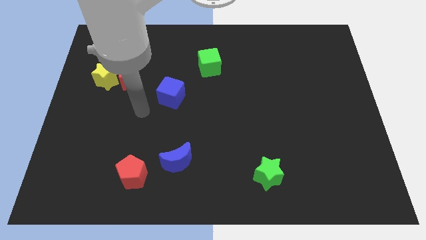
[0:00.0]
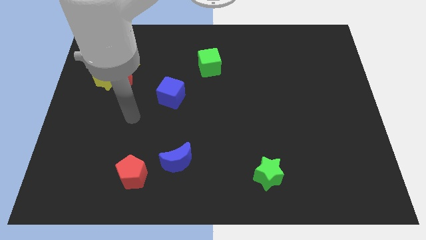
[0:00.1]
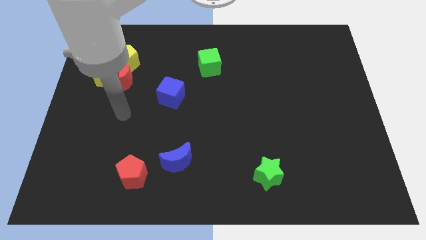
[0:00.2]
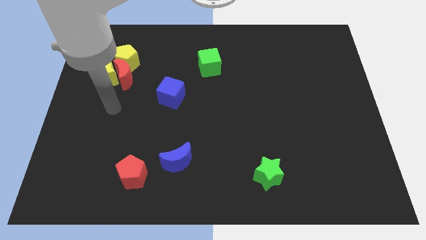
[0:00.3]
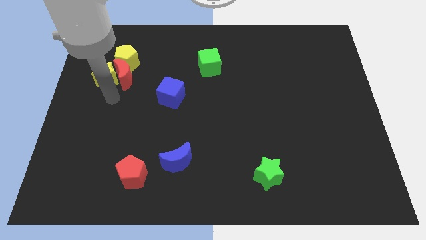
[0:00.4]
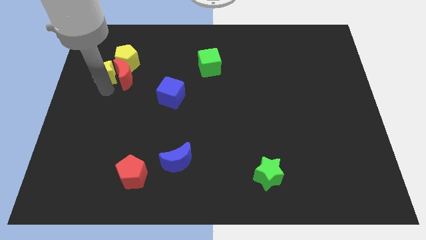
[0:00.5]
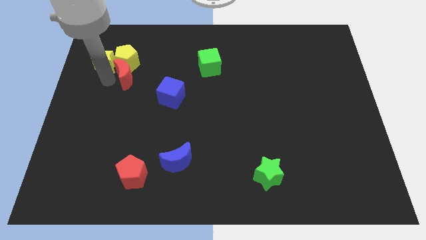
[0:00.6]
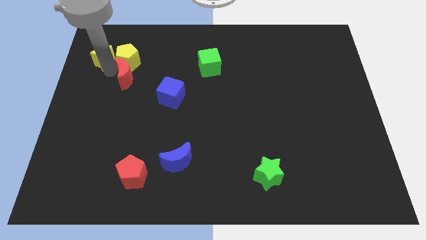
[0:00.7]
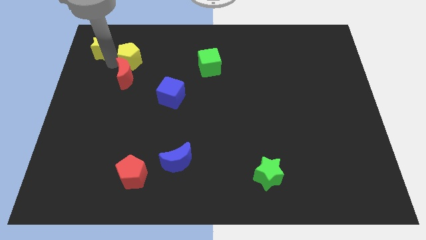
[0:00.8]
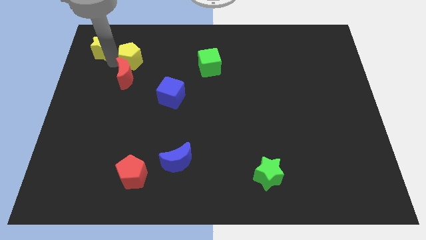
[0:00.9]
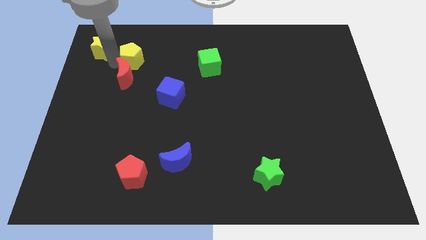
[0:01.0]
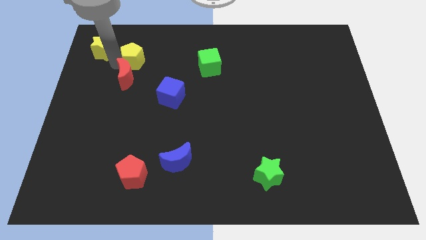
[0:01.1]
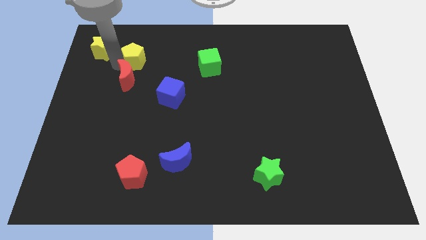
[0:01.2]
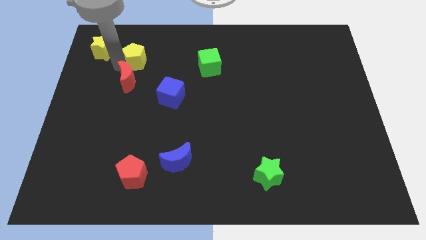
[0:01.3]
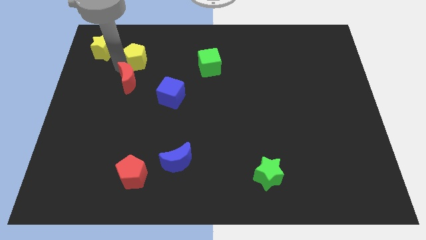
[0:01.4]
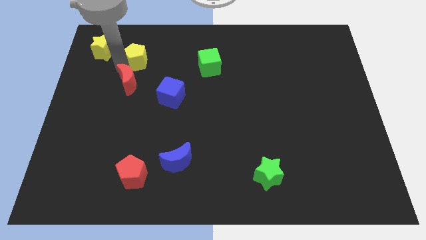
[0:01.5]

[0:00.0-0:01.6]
move the red moon away from the yellow star and yellow pentagon

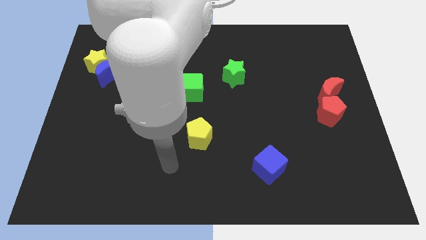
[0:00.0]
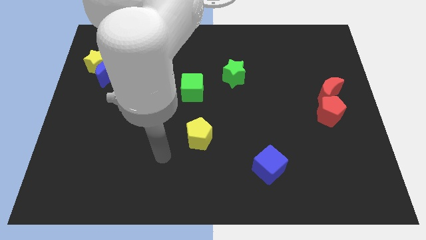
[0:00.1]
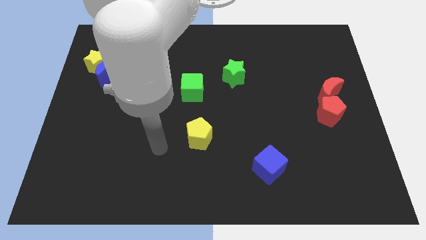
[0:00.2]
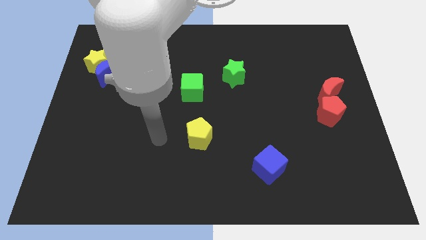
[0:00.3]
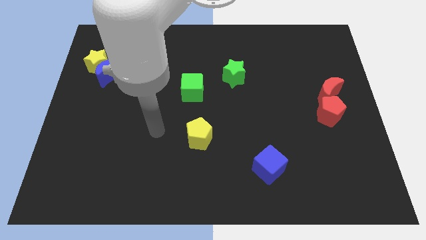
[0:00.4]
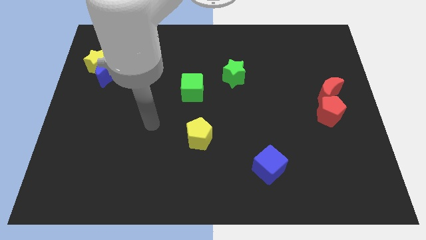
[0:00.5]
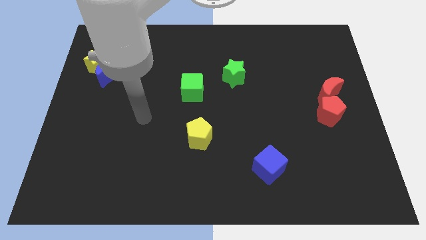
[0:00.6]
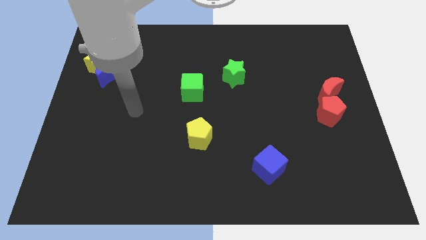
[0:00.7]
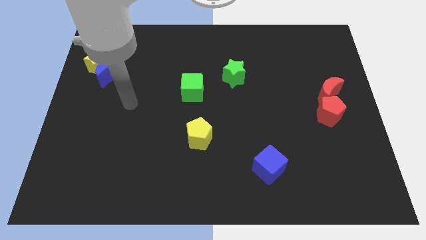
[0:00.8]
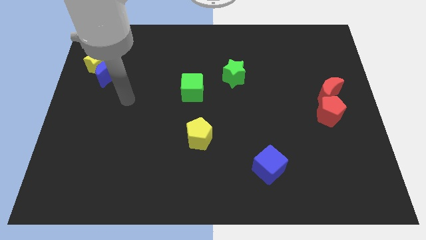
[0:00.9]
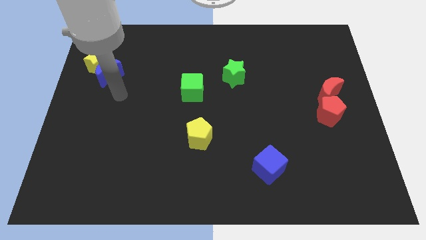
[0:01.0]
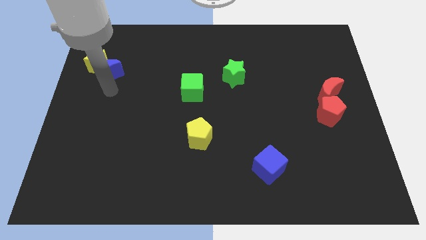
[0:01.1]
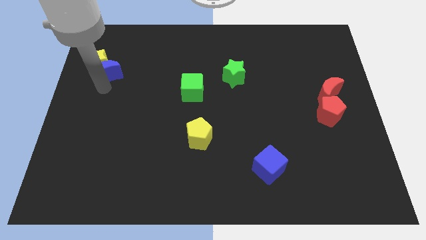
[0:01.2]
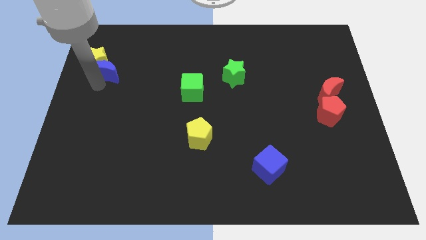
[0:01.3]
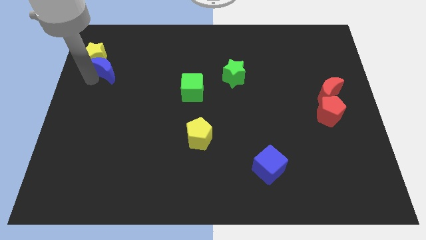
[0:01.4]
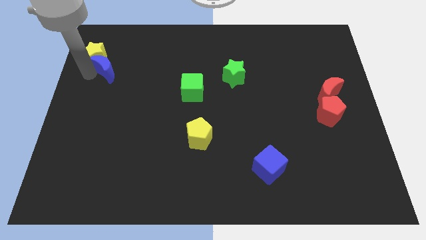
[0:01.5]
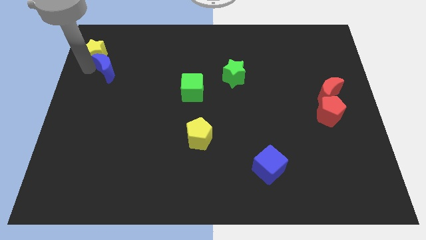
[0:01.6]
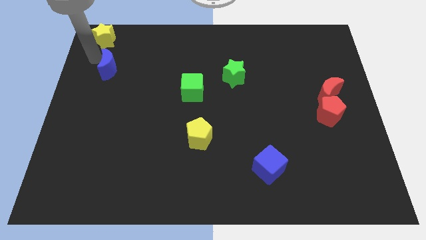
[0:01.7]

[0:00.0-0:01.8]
separate the blue moon from the yellow star

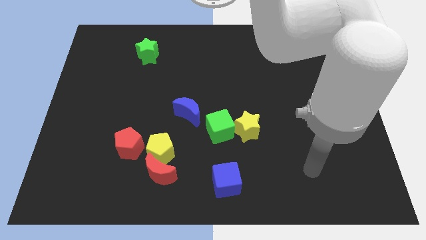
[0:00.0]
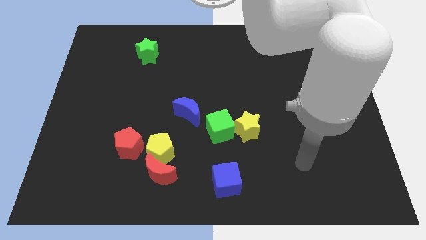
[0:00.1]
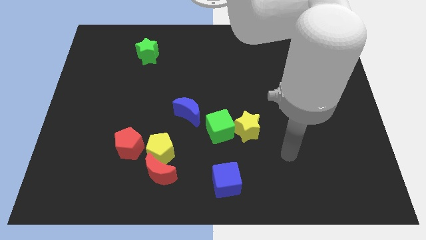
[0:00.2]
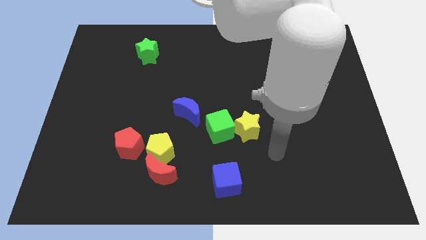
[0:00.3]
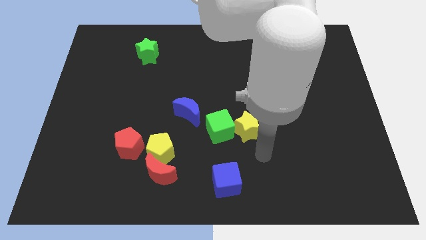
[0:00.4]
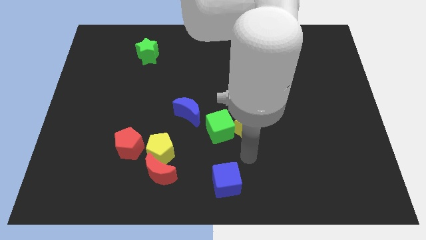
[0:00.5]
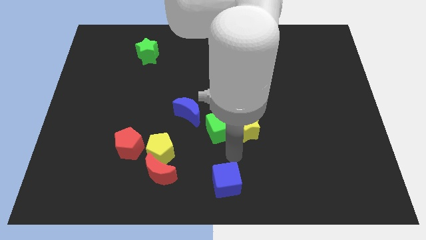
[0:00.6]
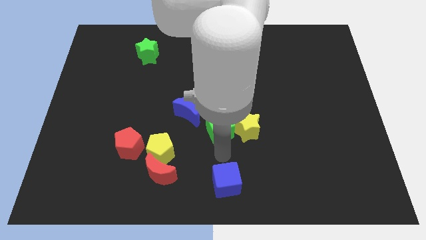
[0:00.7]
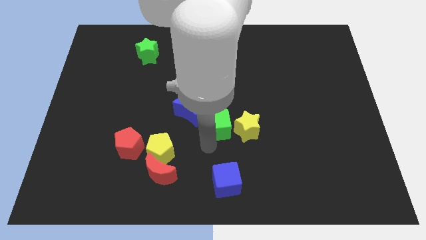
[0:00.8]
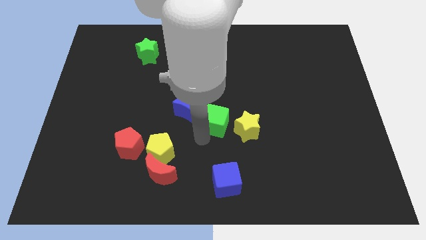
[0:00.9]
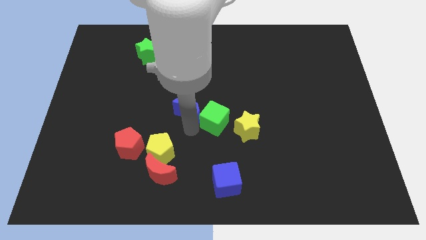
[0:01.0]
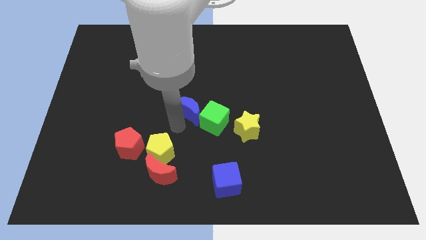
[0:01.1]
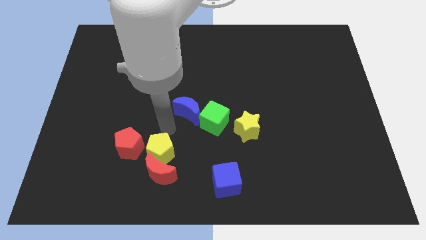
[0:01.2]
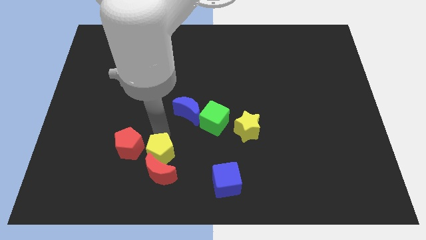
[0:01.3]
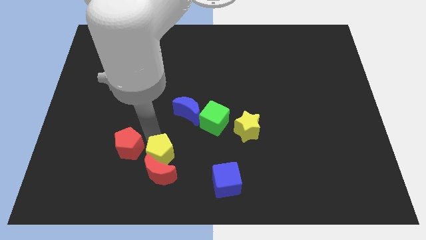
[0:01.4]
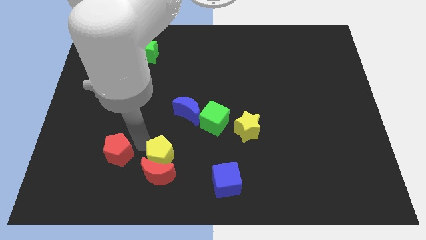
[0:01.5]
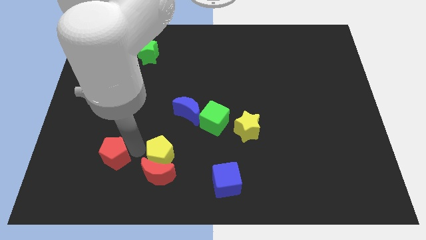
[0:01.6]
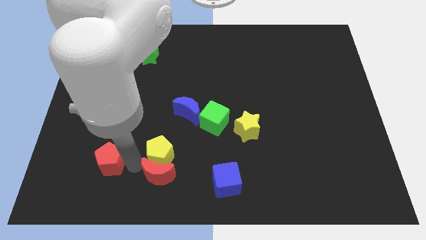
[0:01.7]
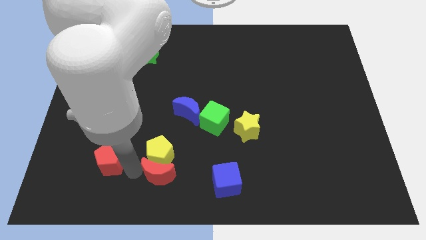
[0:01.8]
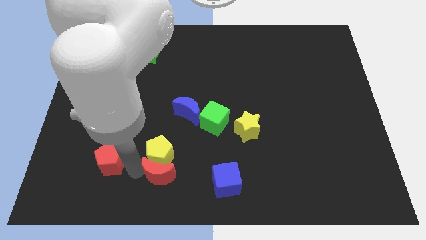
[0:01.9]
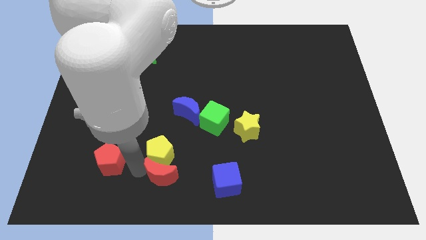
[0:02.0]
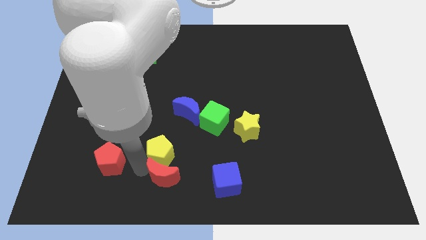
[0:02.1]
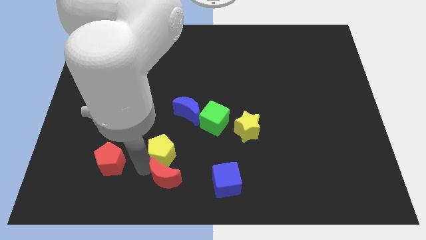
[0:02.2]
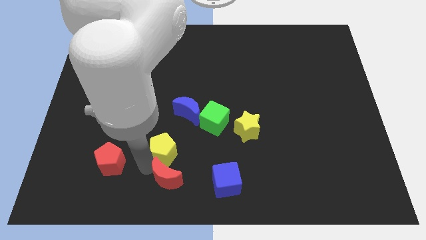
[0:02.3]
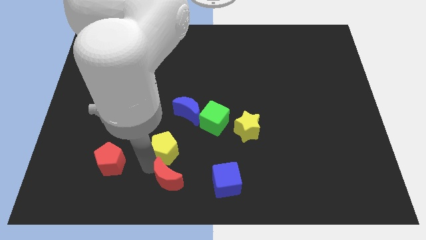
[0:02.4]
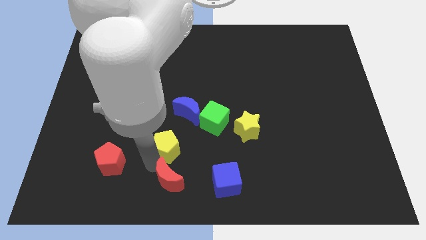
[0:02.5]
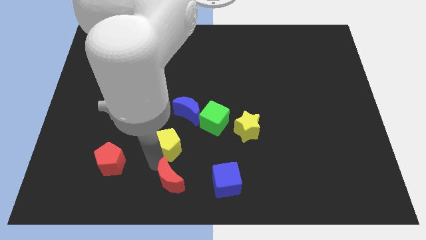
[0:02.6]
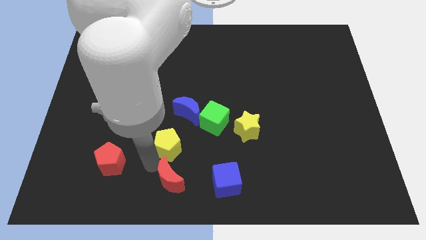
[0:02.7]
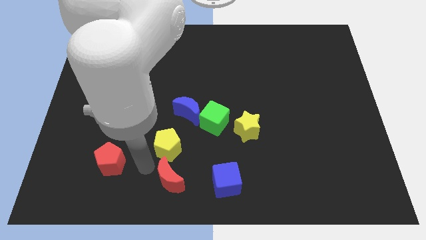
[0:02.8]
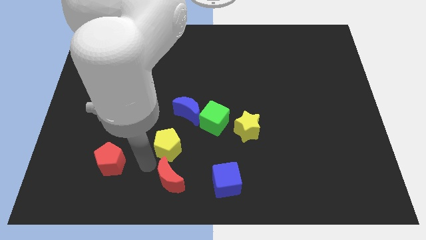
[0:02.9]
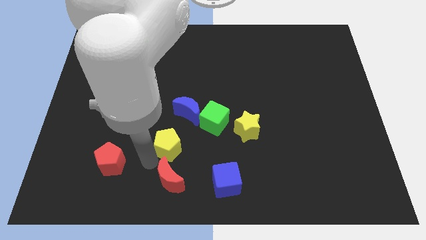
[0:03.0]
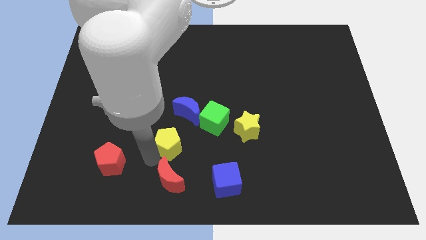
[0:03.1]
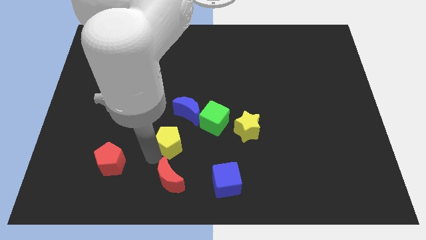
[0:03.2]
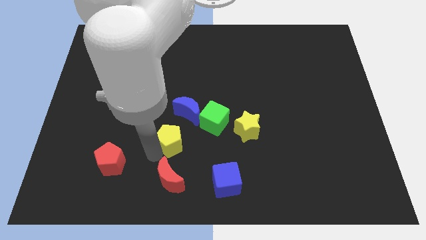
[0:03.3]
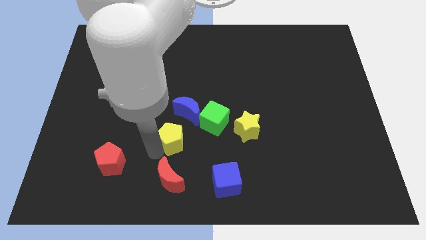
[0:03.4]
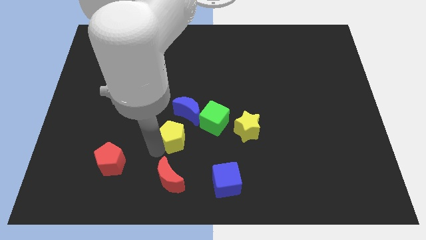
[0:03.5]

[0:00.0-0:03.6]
move the yellow pentagon away from the red moon and red pentagon

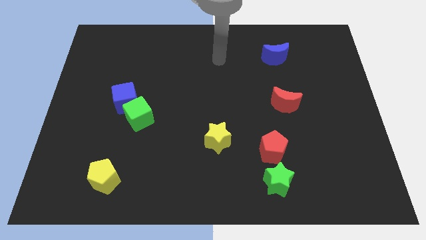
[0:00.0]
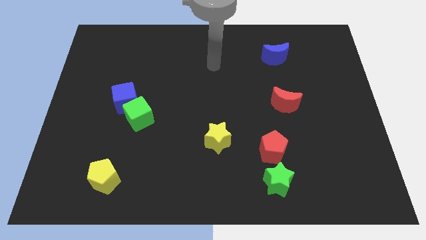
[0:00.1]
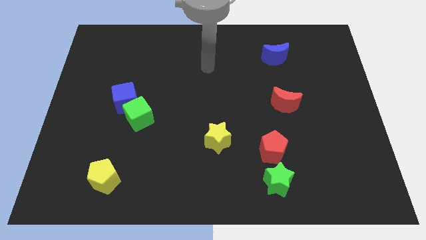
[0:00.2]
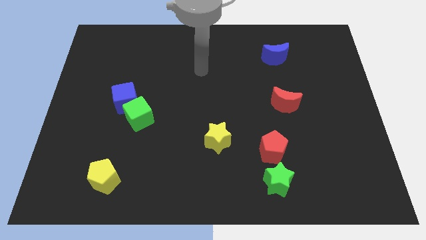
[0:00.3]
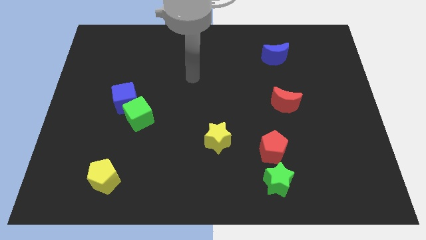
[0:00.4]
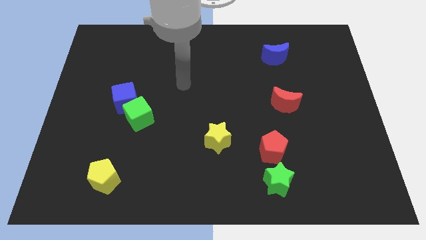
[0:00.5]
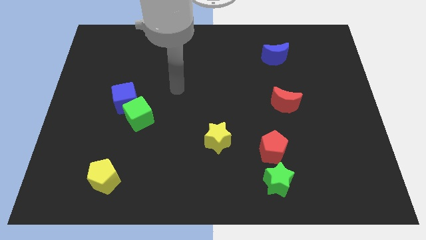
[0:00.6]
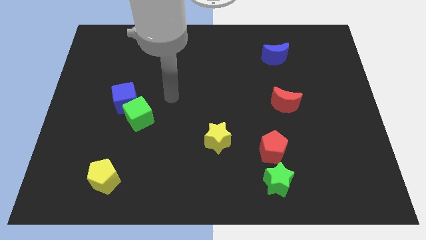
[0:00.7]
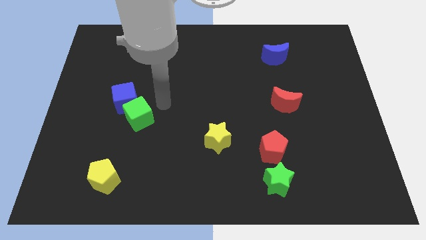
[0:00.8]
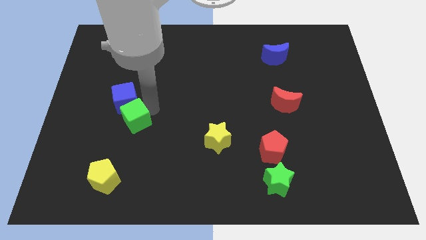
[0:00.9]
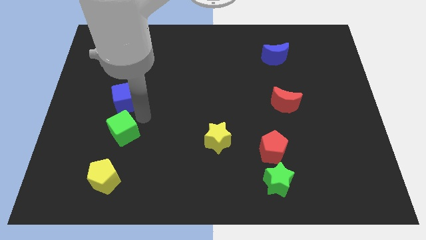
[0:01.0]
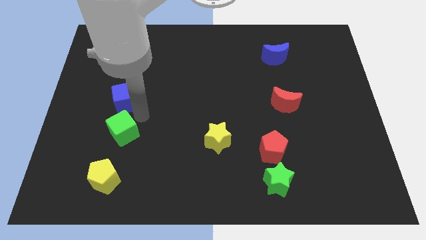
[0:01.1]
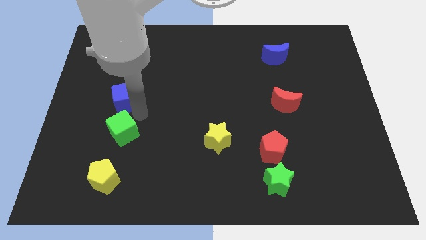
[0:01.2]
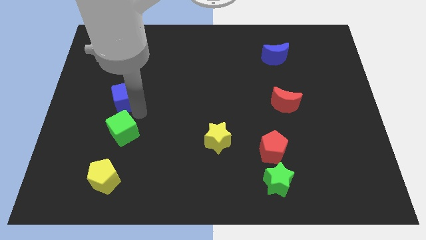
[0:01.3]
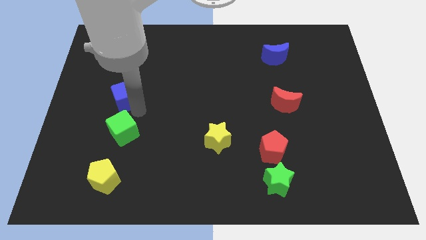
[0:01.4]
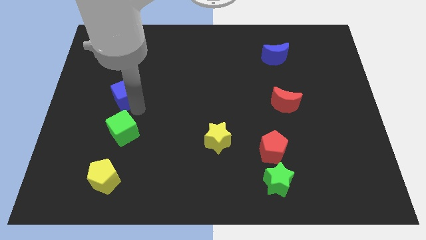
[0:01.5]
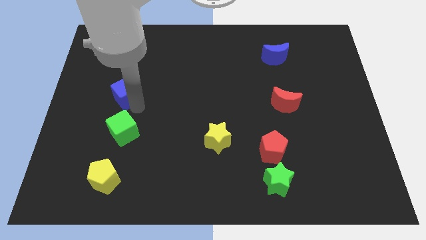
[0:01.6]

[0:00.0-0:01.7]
pull the blue cube apart from the green cube

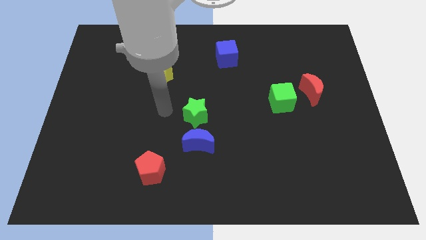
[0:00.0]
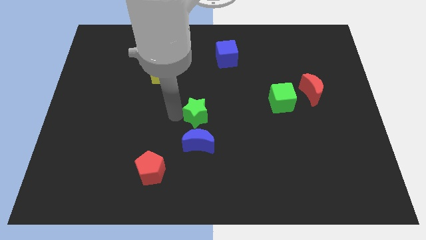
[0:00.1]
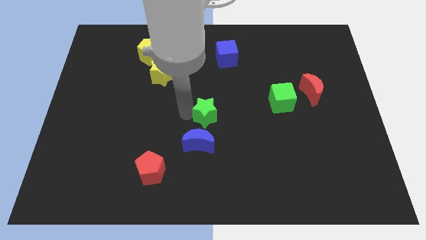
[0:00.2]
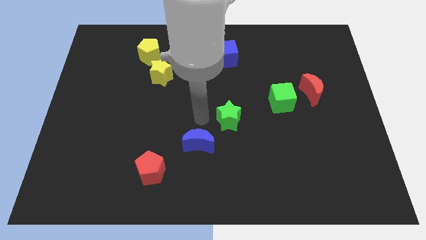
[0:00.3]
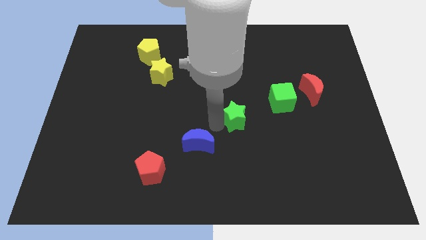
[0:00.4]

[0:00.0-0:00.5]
move the blue moon away from the green star

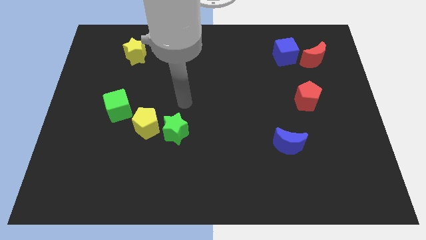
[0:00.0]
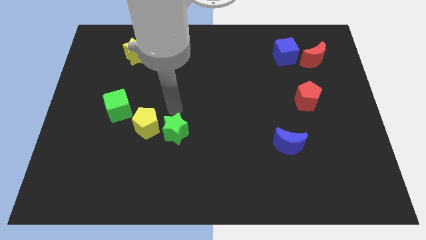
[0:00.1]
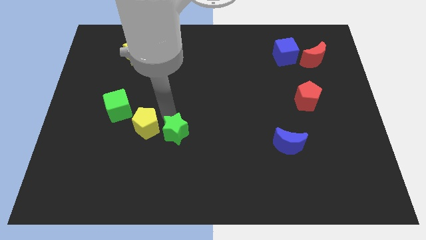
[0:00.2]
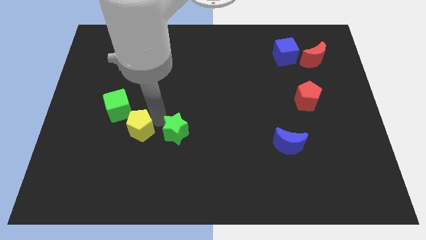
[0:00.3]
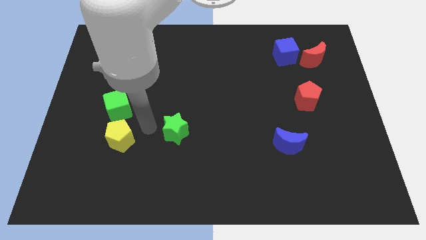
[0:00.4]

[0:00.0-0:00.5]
pull the green star apart from the yellow pentagon
